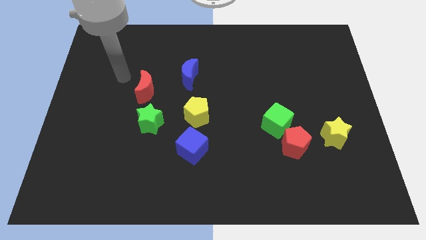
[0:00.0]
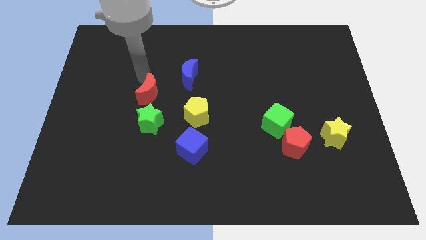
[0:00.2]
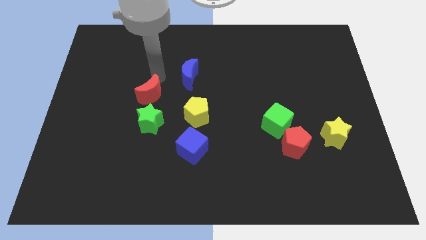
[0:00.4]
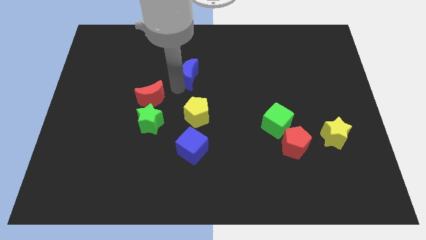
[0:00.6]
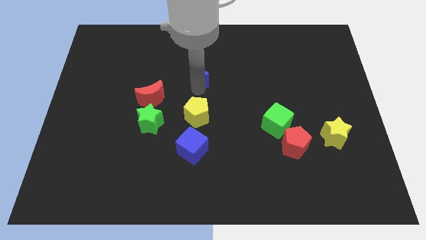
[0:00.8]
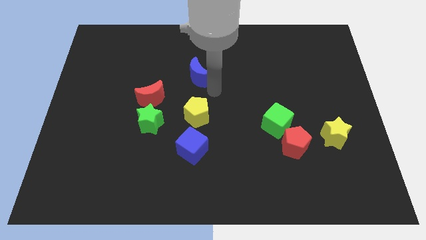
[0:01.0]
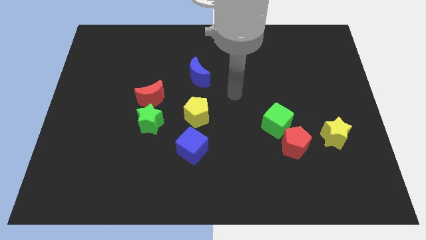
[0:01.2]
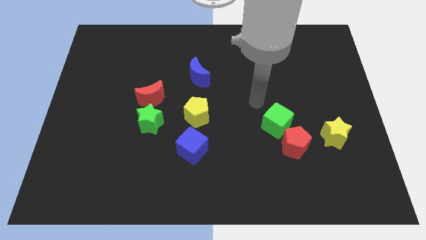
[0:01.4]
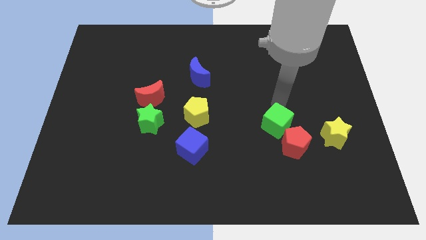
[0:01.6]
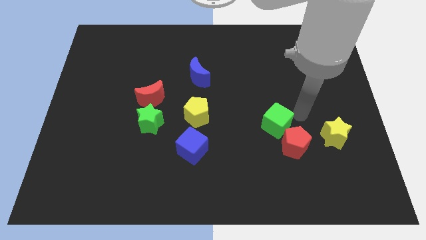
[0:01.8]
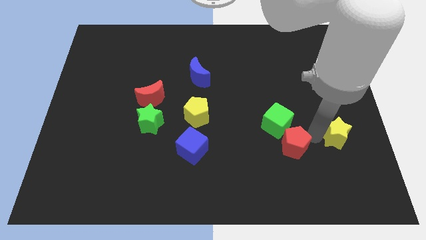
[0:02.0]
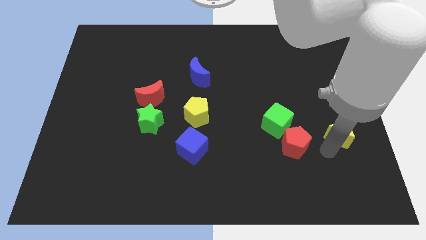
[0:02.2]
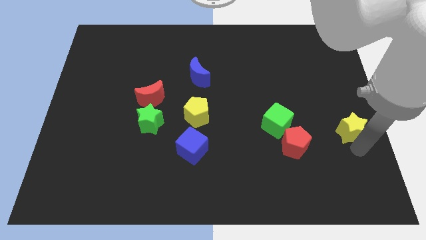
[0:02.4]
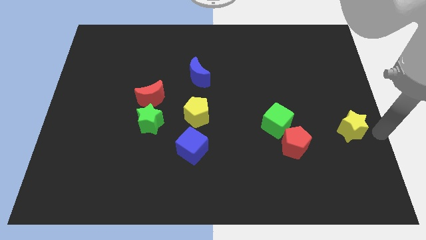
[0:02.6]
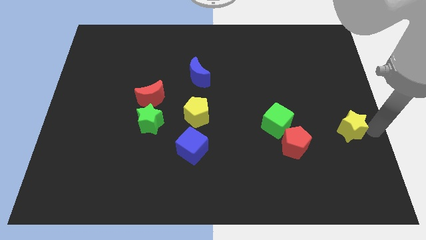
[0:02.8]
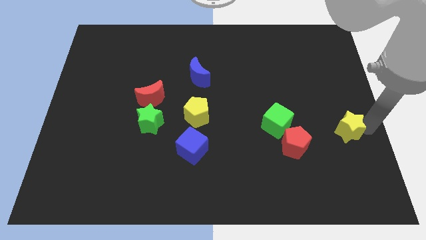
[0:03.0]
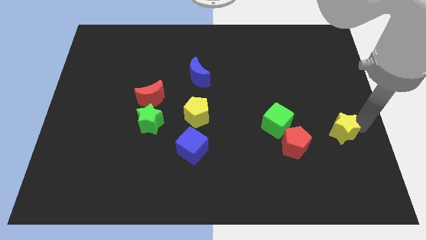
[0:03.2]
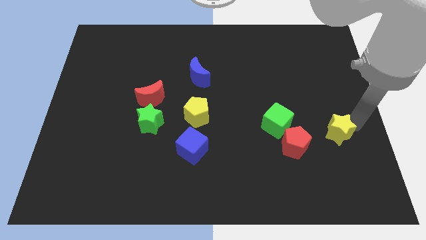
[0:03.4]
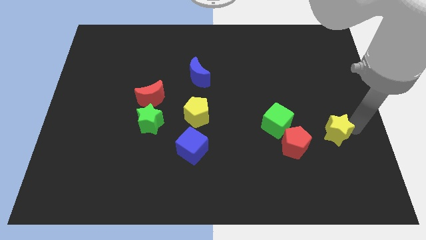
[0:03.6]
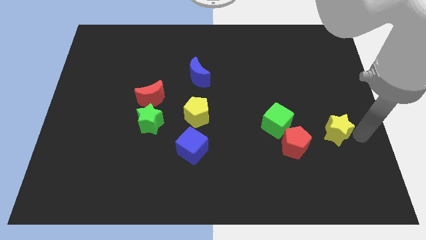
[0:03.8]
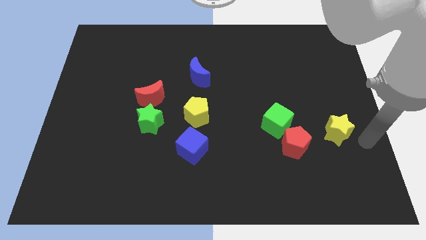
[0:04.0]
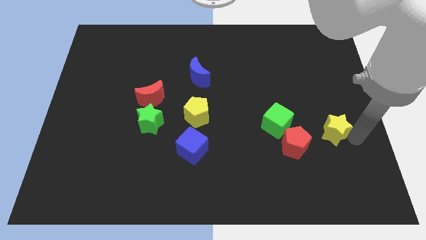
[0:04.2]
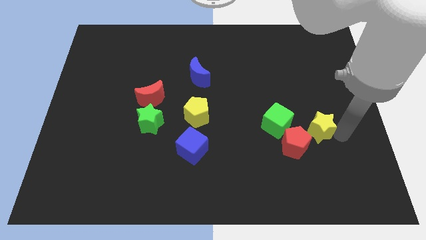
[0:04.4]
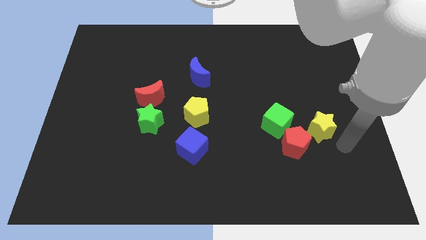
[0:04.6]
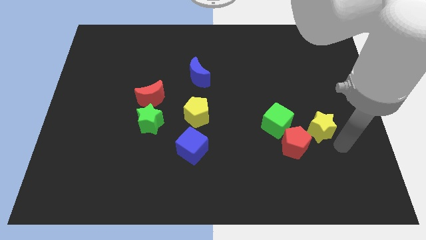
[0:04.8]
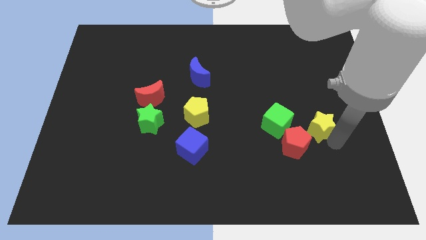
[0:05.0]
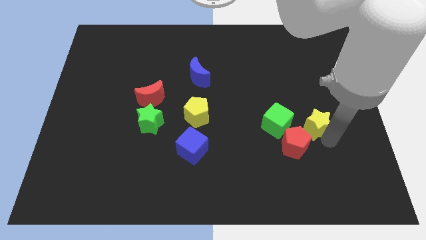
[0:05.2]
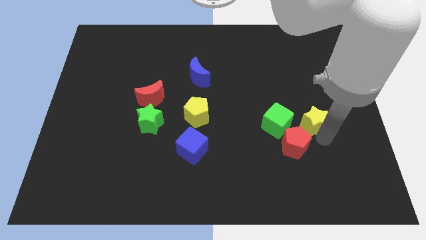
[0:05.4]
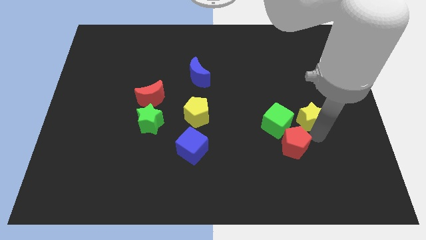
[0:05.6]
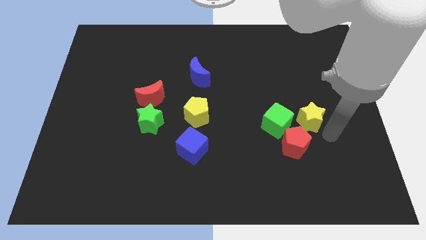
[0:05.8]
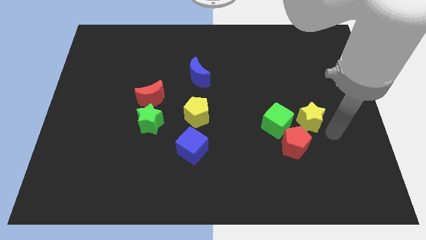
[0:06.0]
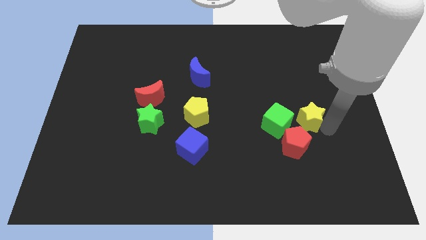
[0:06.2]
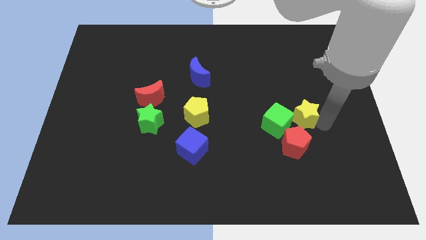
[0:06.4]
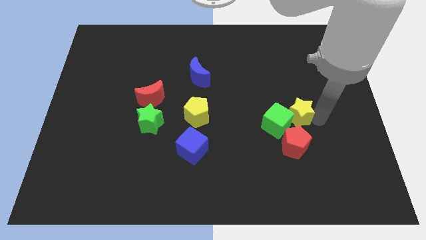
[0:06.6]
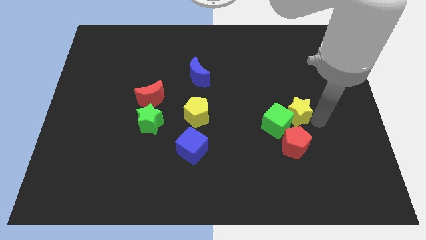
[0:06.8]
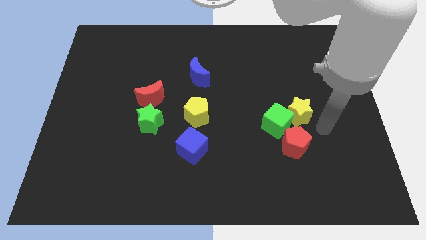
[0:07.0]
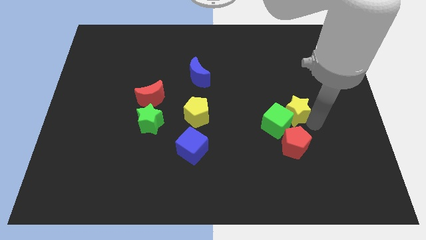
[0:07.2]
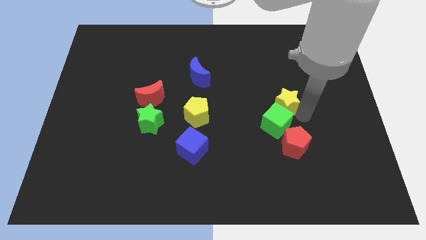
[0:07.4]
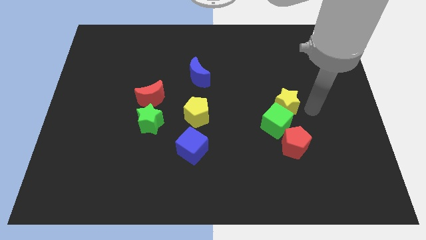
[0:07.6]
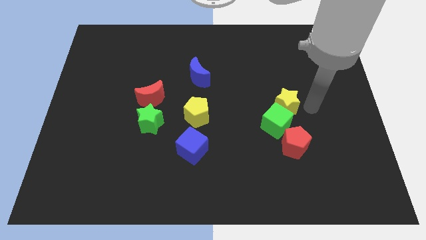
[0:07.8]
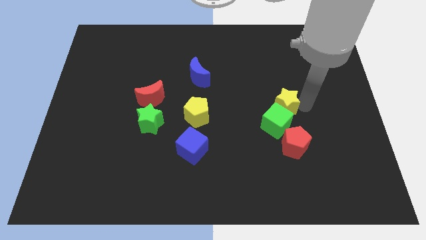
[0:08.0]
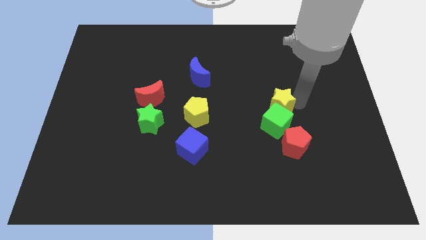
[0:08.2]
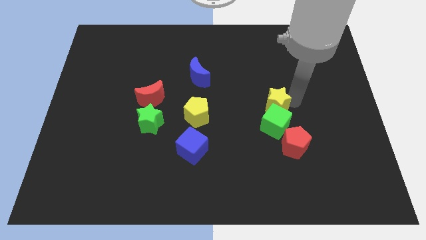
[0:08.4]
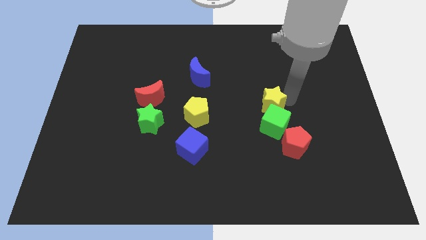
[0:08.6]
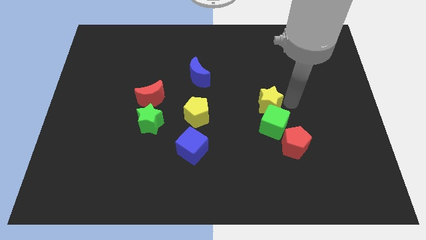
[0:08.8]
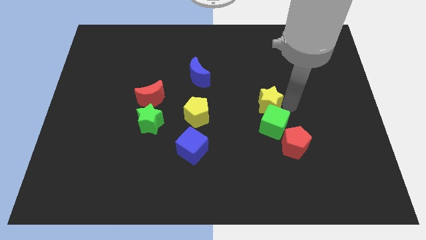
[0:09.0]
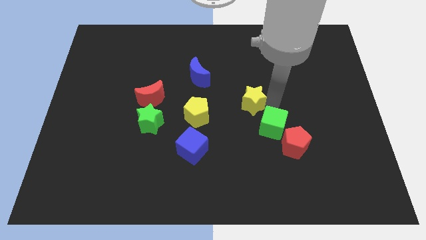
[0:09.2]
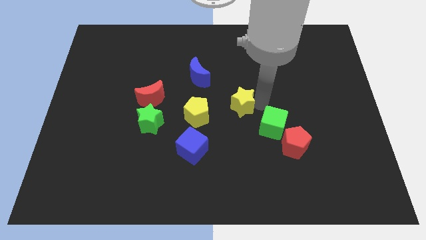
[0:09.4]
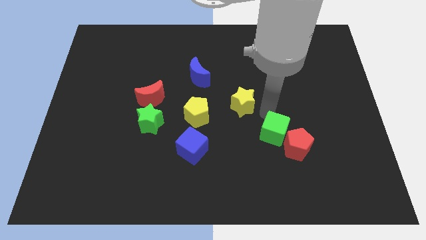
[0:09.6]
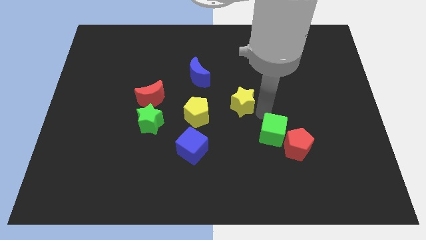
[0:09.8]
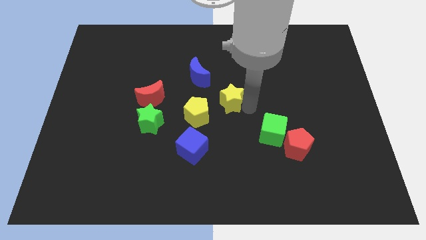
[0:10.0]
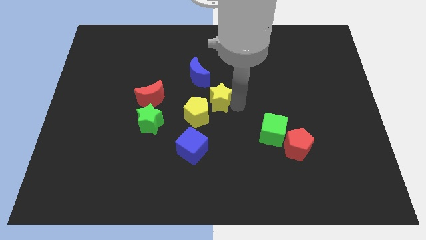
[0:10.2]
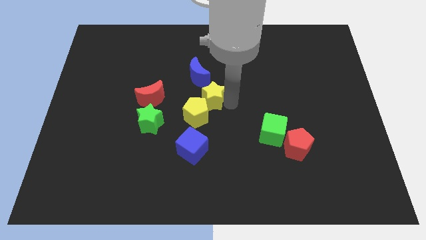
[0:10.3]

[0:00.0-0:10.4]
move the yellow star just right of the red moon

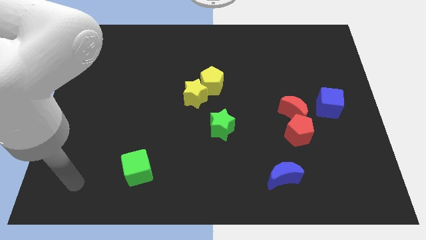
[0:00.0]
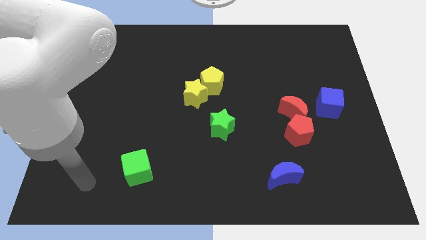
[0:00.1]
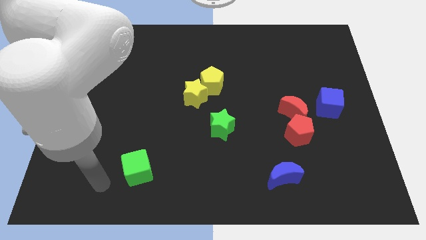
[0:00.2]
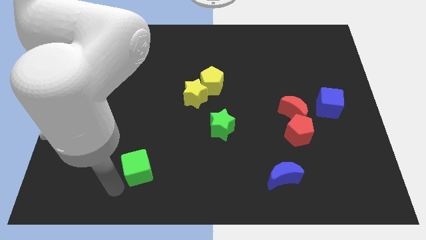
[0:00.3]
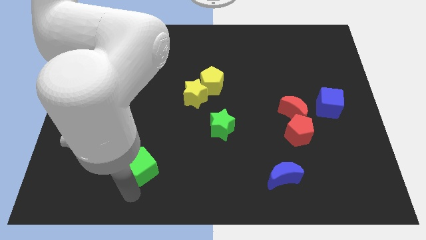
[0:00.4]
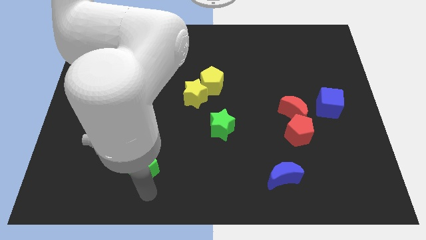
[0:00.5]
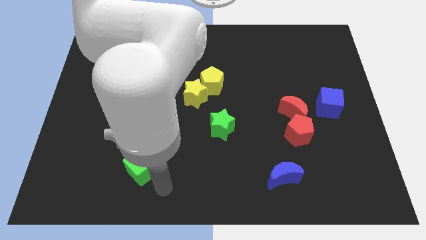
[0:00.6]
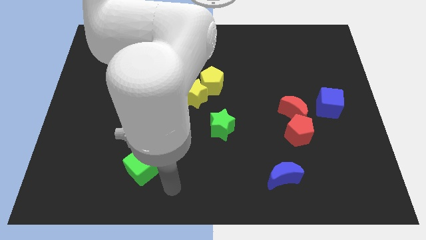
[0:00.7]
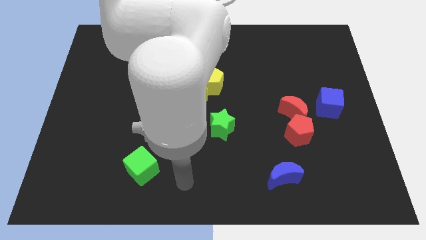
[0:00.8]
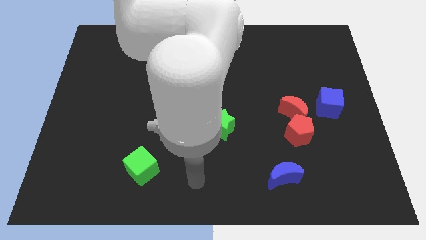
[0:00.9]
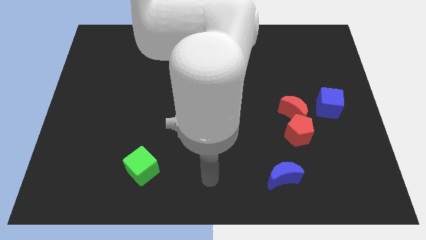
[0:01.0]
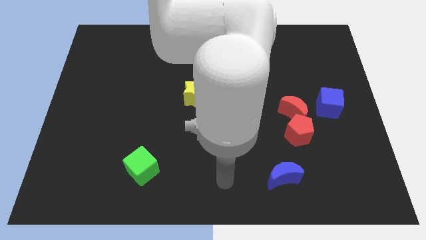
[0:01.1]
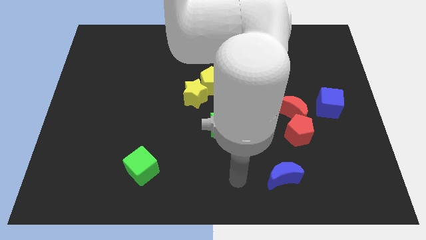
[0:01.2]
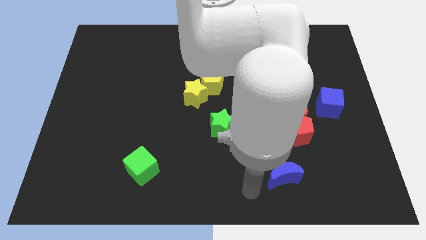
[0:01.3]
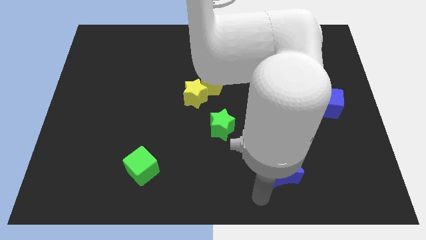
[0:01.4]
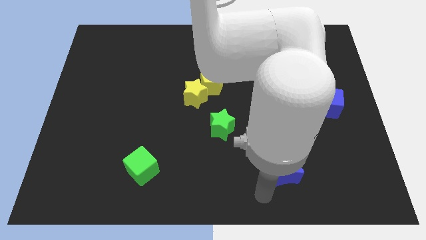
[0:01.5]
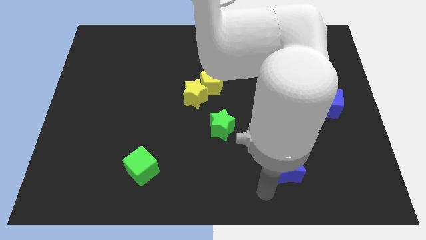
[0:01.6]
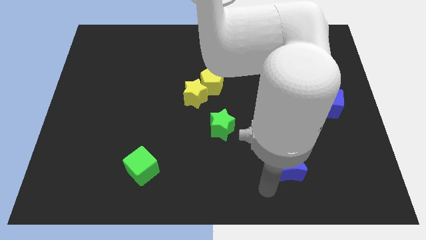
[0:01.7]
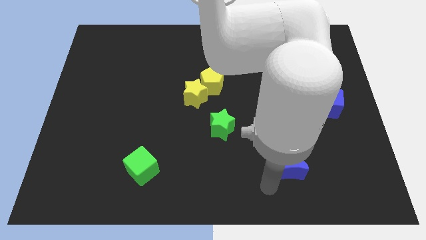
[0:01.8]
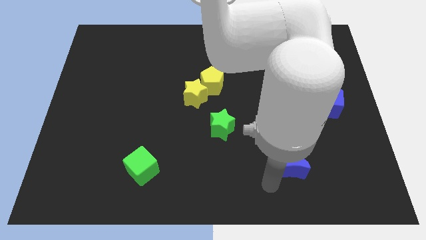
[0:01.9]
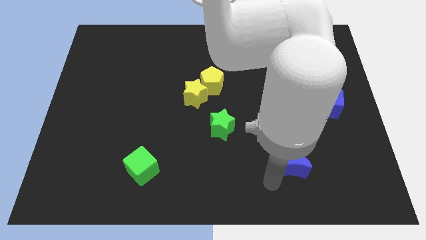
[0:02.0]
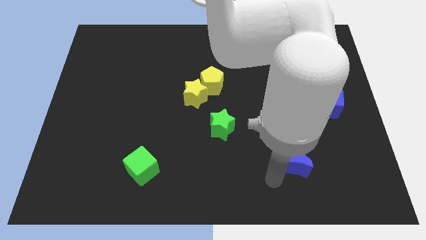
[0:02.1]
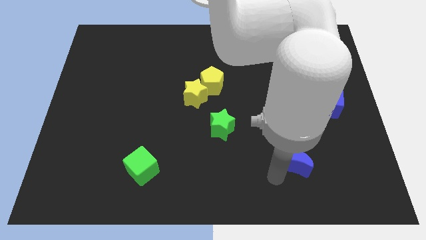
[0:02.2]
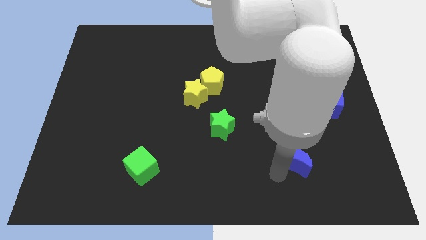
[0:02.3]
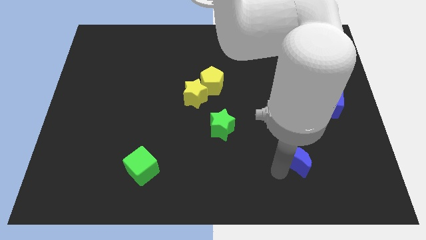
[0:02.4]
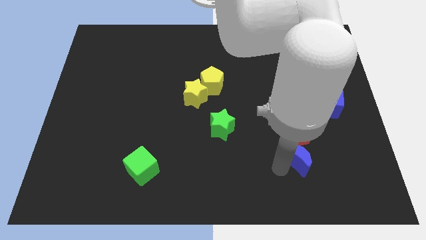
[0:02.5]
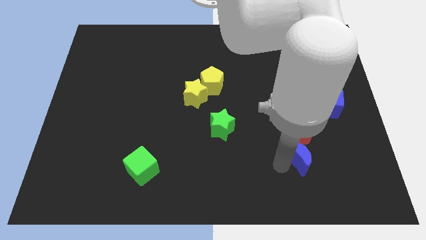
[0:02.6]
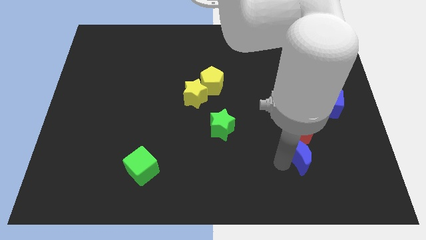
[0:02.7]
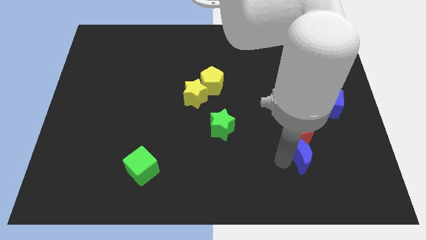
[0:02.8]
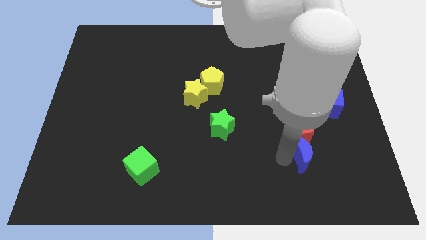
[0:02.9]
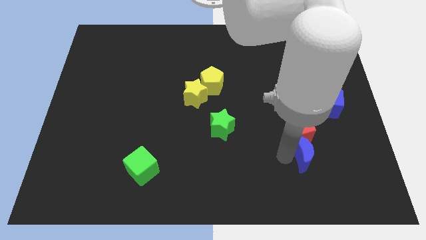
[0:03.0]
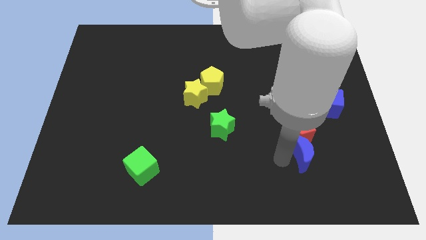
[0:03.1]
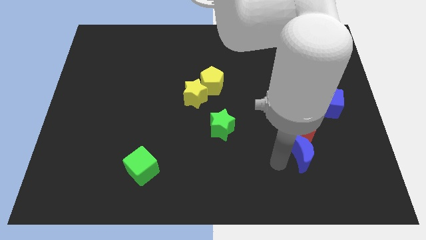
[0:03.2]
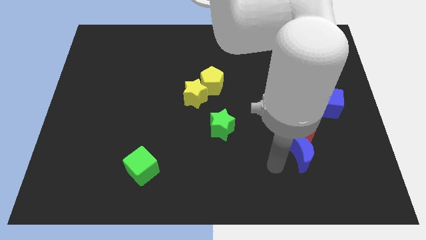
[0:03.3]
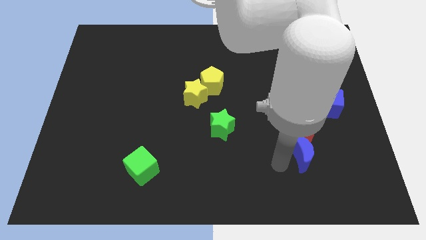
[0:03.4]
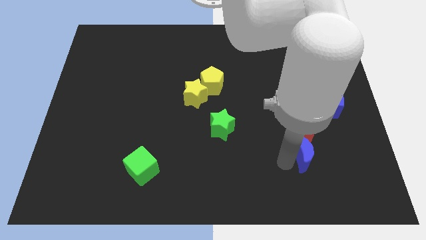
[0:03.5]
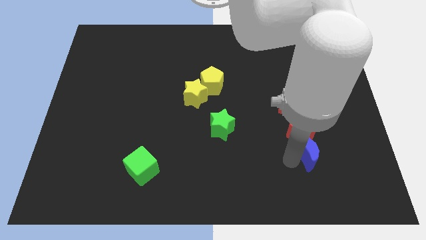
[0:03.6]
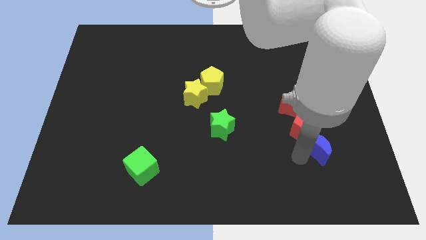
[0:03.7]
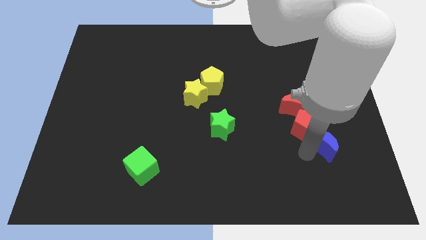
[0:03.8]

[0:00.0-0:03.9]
move the blue moon to the bottom of the blue cube
